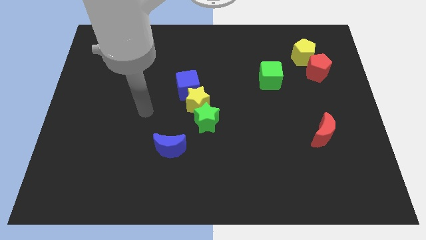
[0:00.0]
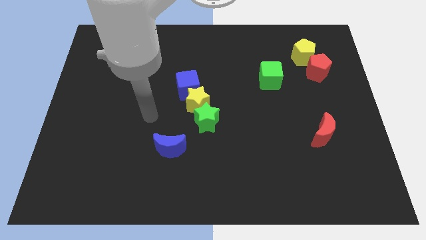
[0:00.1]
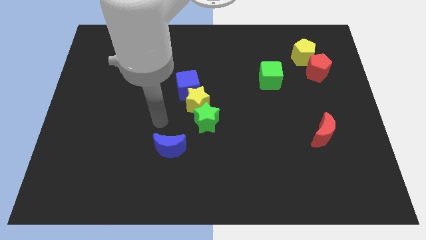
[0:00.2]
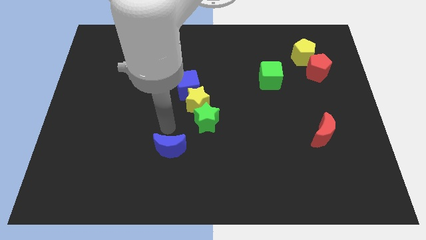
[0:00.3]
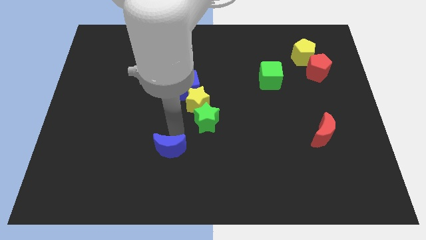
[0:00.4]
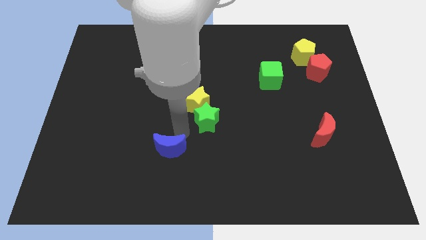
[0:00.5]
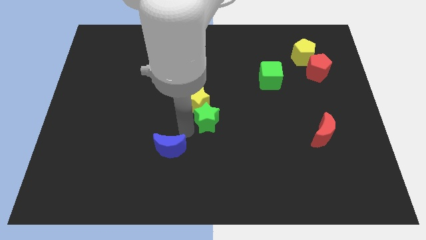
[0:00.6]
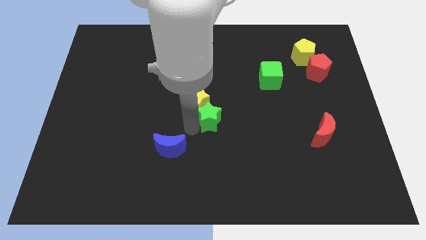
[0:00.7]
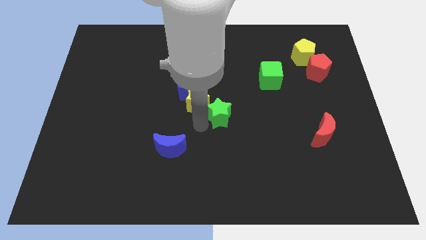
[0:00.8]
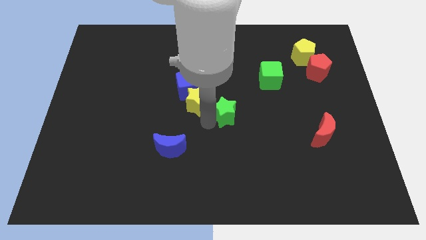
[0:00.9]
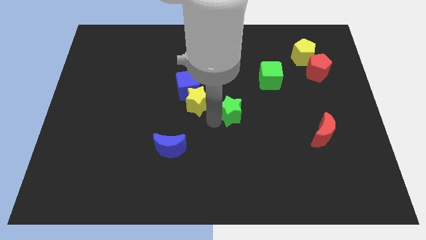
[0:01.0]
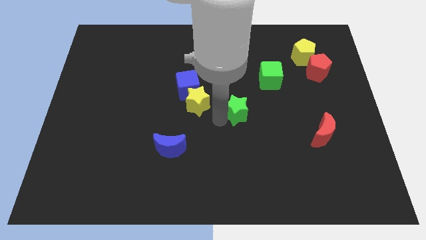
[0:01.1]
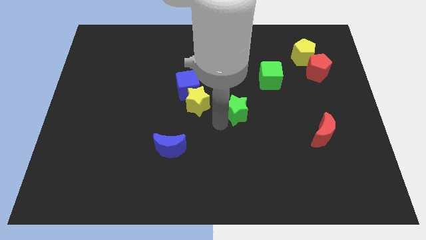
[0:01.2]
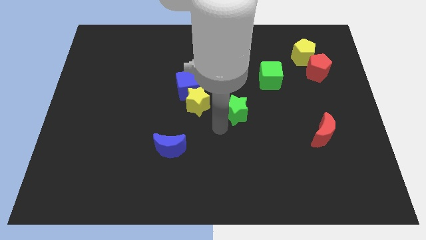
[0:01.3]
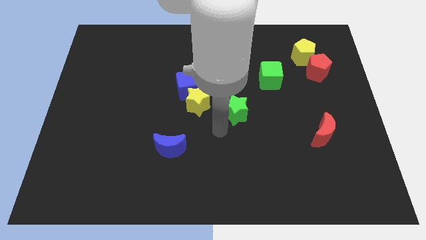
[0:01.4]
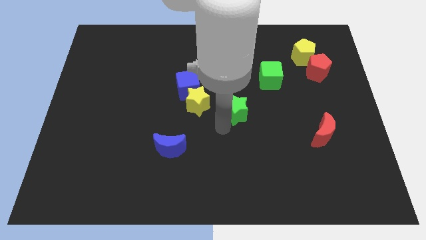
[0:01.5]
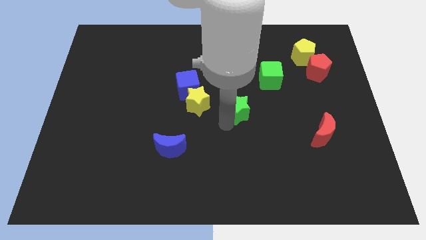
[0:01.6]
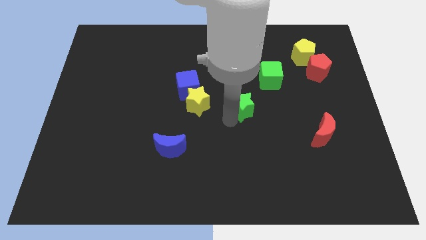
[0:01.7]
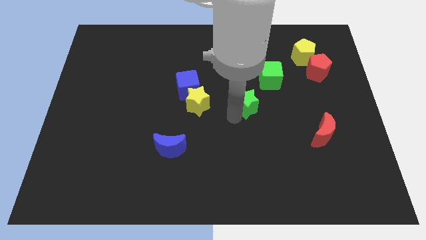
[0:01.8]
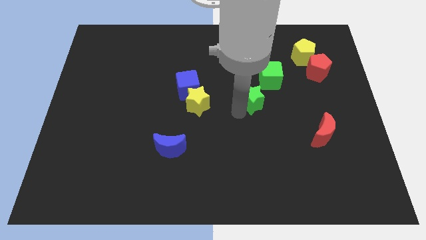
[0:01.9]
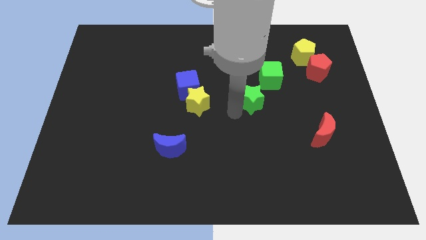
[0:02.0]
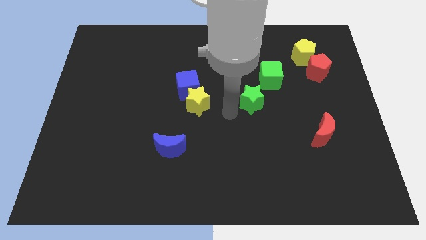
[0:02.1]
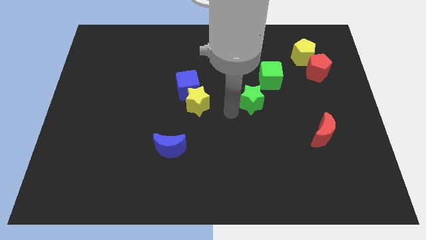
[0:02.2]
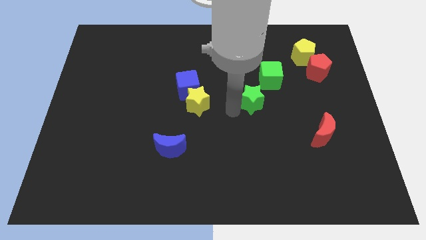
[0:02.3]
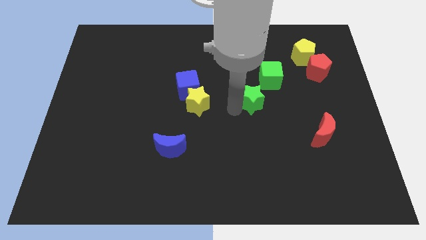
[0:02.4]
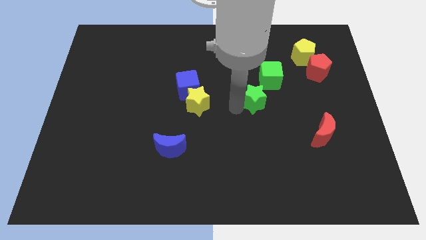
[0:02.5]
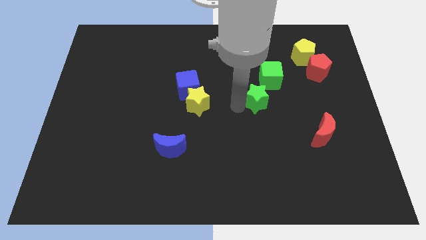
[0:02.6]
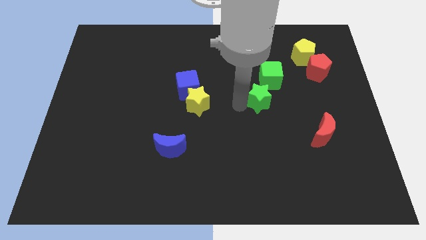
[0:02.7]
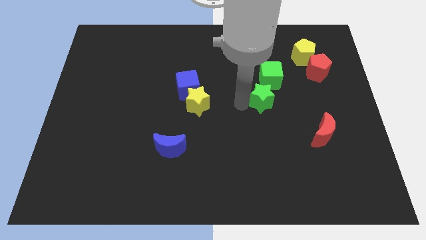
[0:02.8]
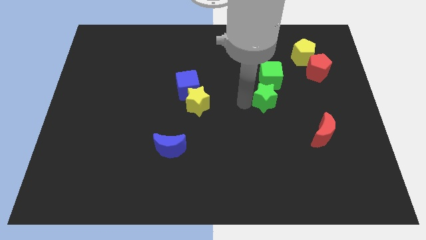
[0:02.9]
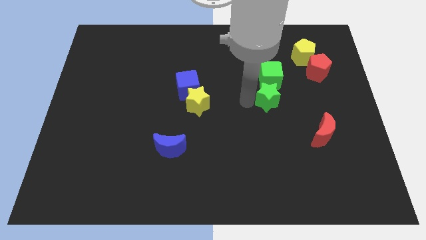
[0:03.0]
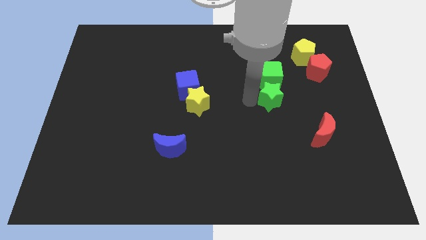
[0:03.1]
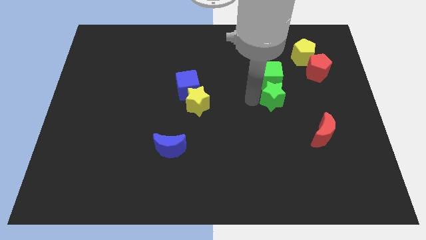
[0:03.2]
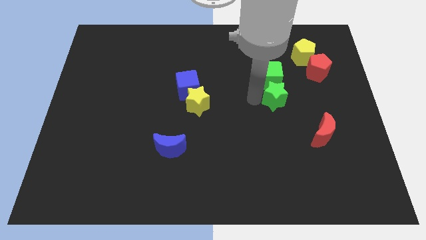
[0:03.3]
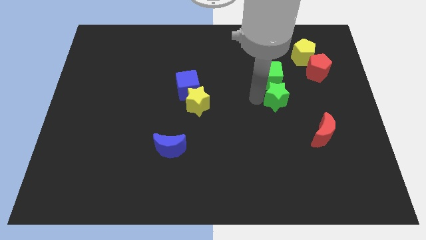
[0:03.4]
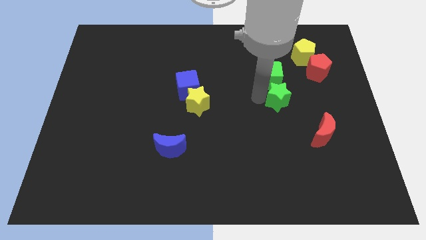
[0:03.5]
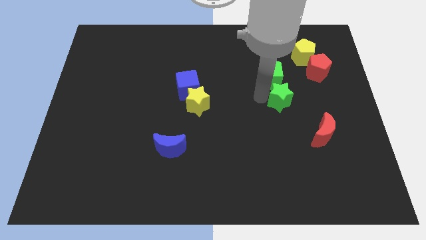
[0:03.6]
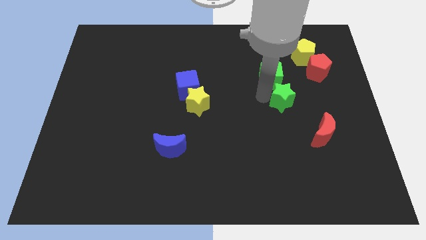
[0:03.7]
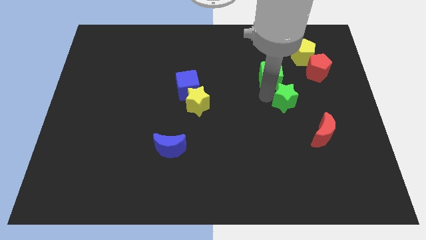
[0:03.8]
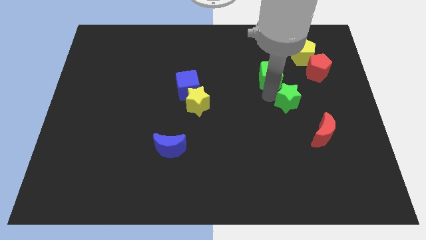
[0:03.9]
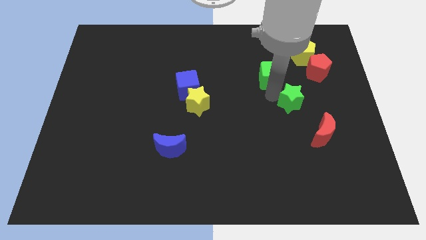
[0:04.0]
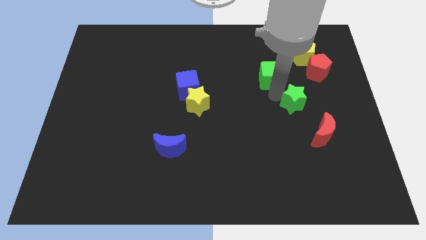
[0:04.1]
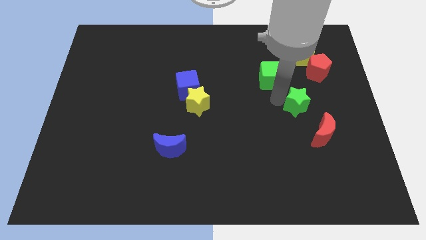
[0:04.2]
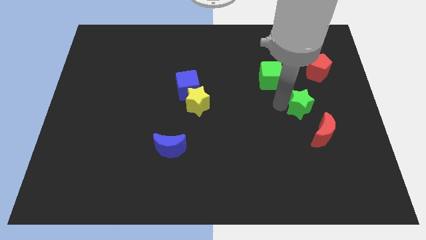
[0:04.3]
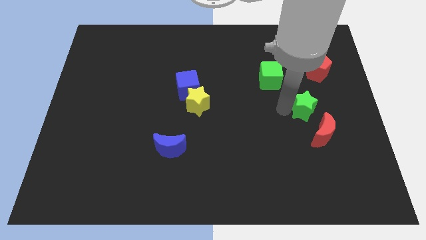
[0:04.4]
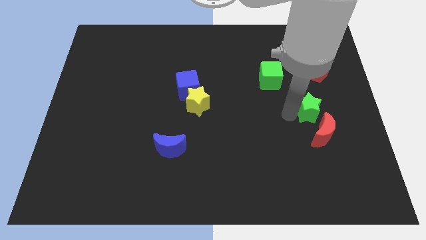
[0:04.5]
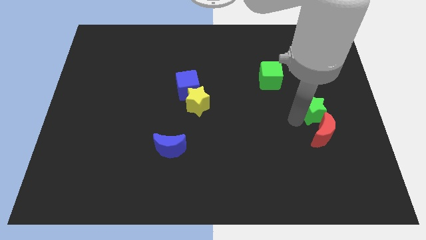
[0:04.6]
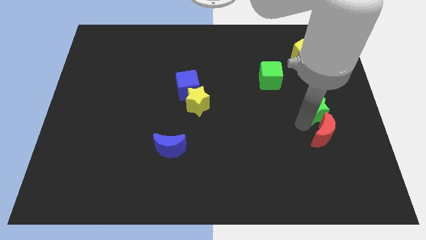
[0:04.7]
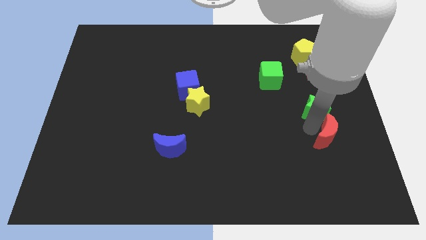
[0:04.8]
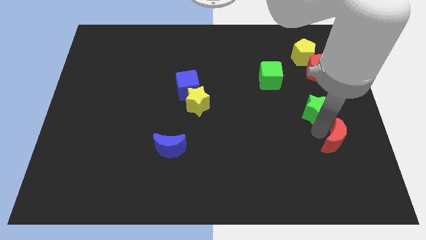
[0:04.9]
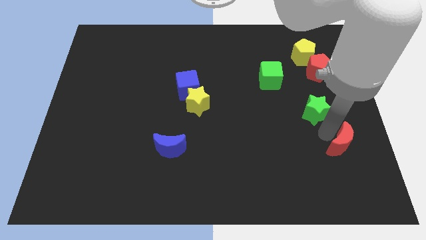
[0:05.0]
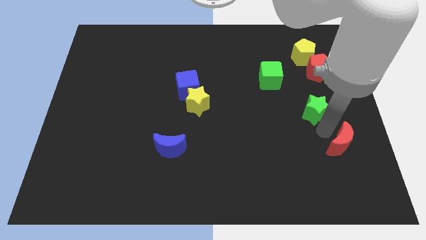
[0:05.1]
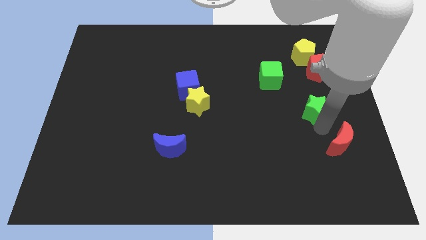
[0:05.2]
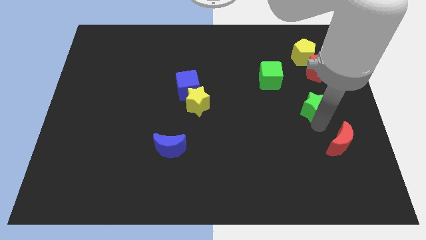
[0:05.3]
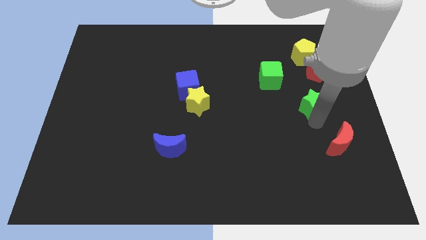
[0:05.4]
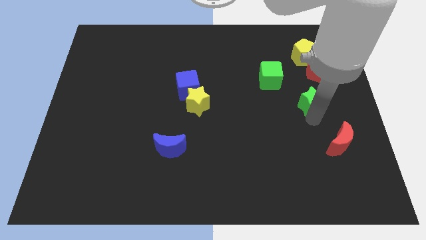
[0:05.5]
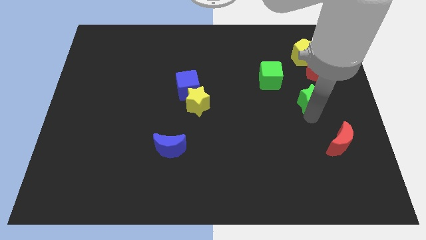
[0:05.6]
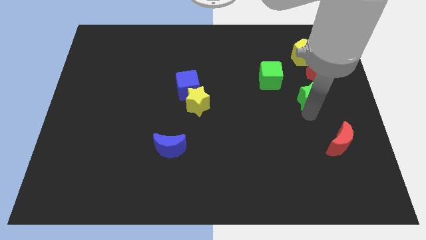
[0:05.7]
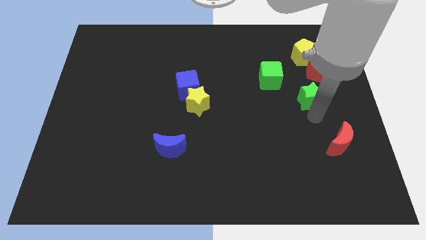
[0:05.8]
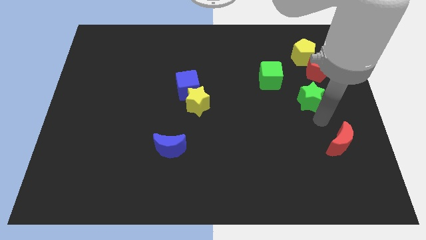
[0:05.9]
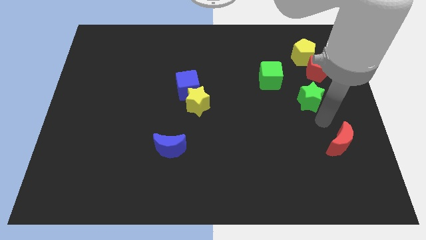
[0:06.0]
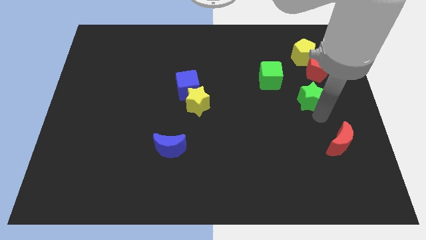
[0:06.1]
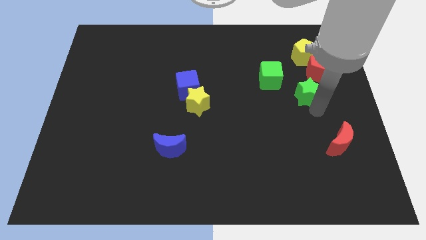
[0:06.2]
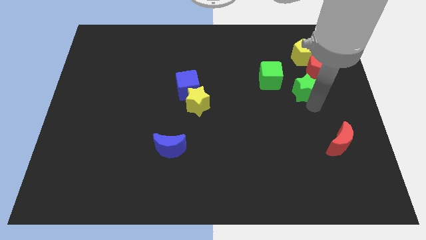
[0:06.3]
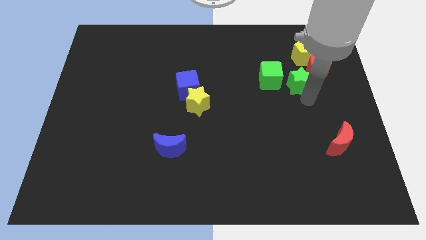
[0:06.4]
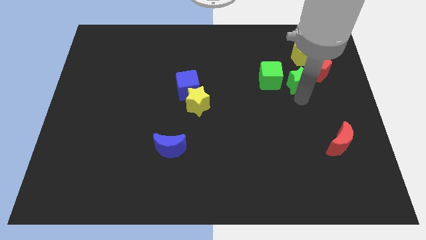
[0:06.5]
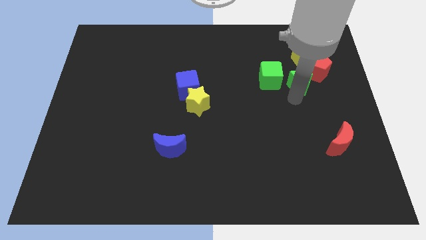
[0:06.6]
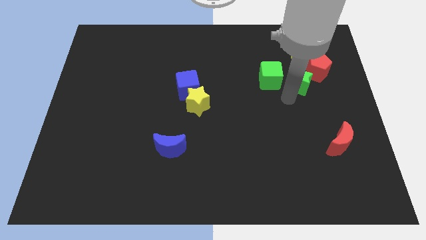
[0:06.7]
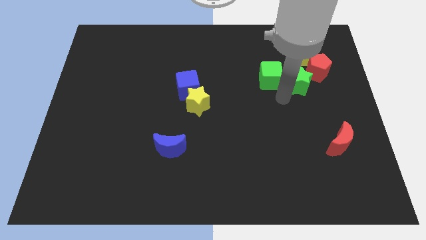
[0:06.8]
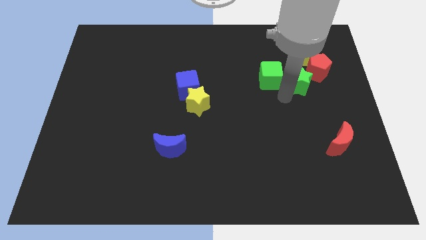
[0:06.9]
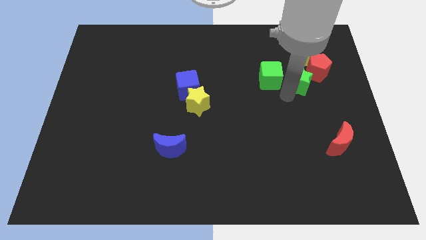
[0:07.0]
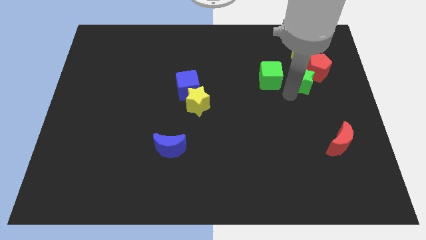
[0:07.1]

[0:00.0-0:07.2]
push the green star to the red pentagon
